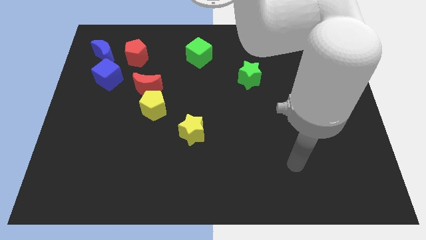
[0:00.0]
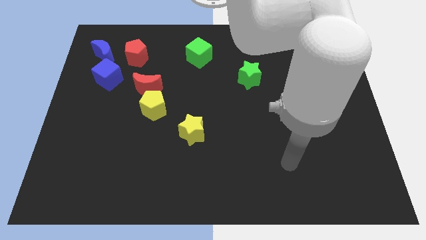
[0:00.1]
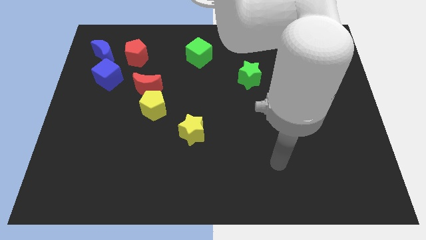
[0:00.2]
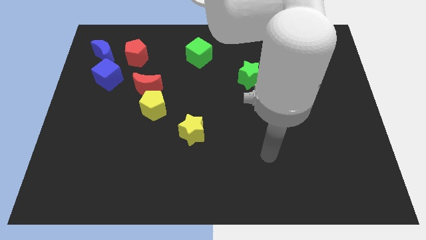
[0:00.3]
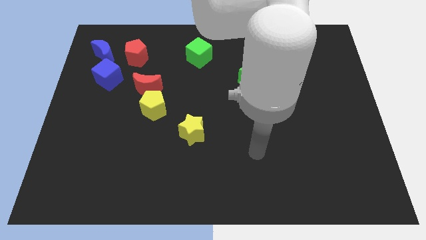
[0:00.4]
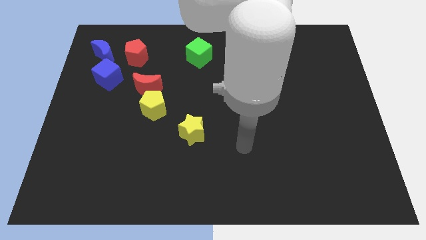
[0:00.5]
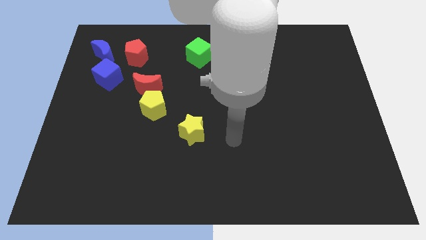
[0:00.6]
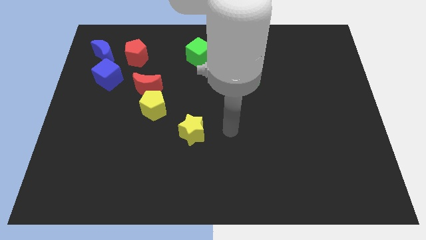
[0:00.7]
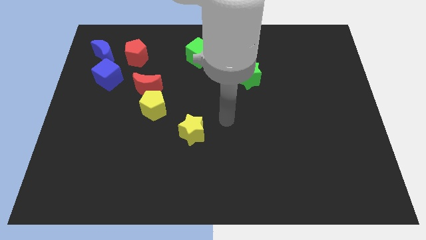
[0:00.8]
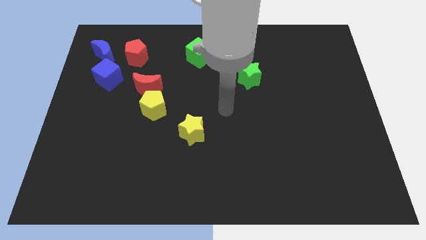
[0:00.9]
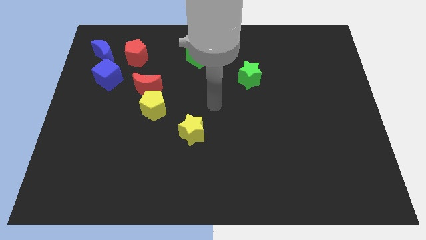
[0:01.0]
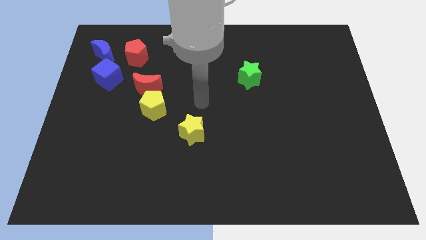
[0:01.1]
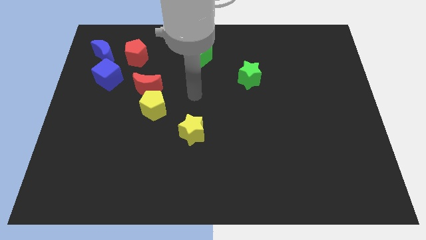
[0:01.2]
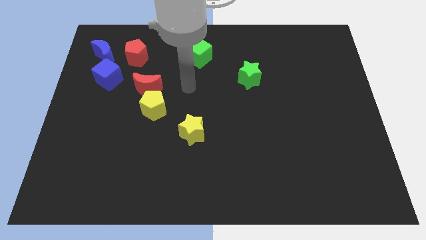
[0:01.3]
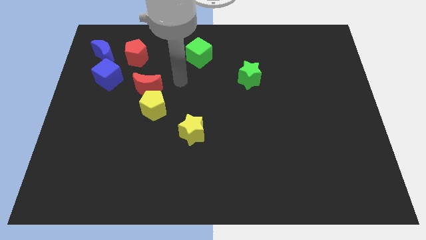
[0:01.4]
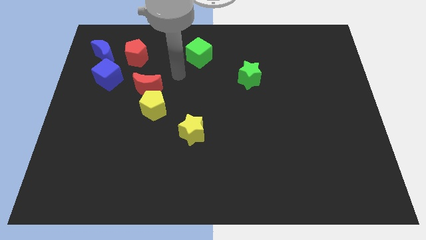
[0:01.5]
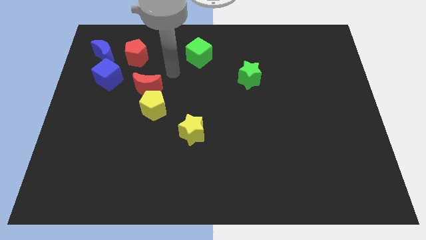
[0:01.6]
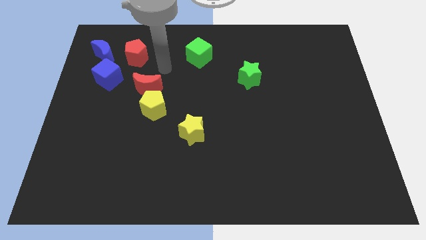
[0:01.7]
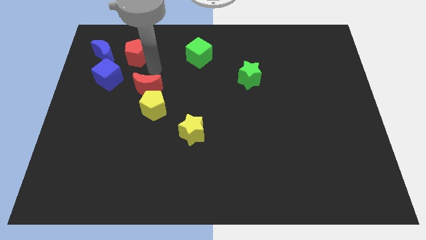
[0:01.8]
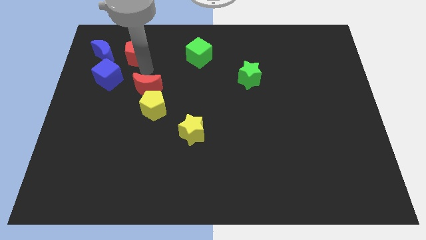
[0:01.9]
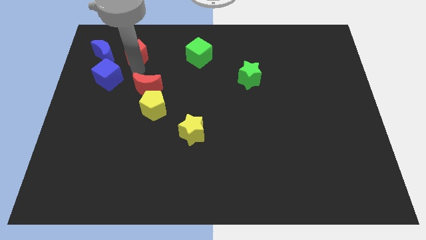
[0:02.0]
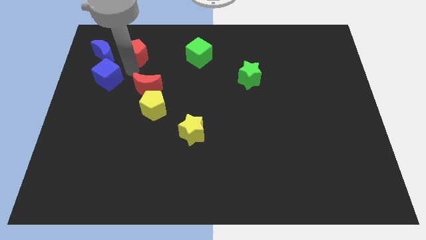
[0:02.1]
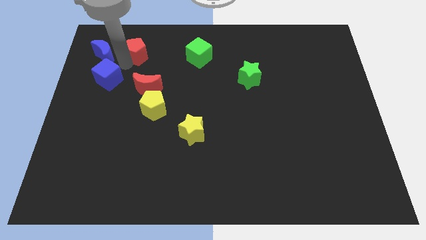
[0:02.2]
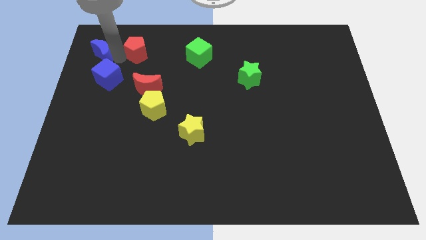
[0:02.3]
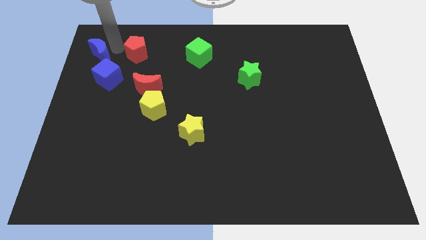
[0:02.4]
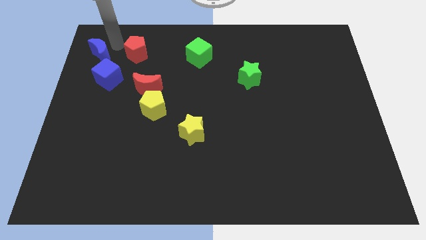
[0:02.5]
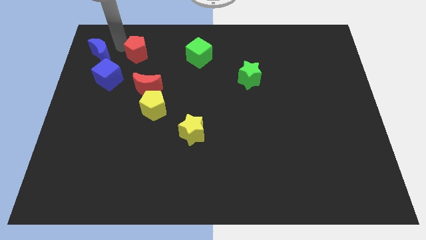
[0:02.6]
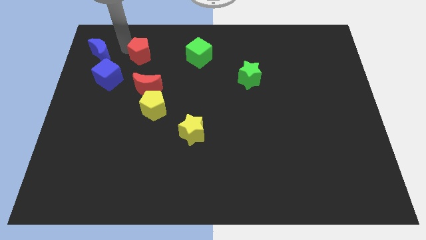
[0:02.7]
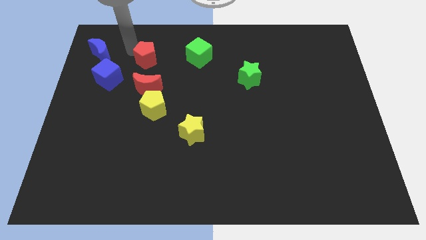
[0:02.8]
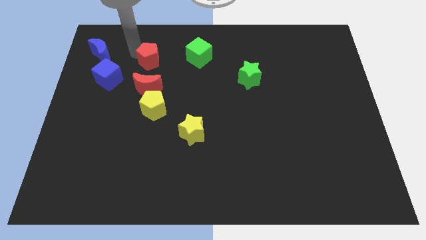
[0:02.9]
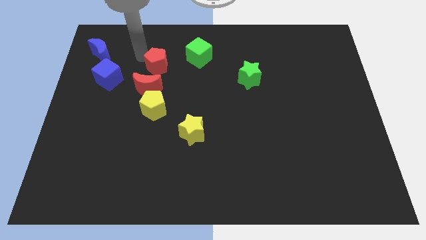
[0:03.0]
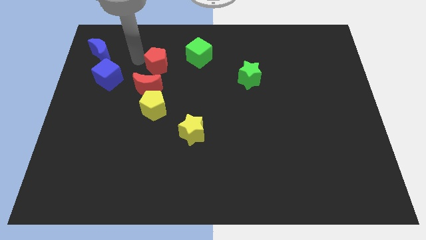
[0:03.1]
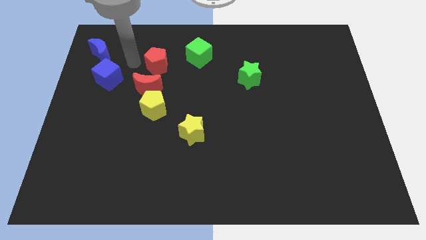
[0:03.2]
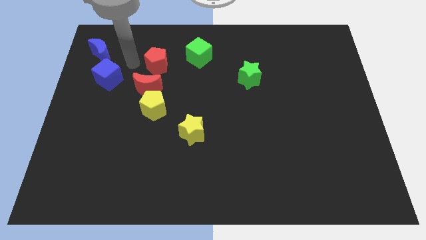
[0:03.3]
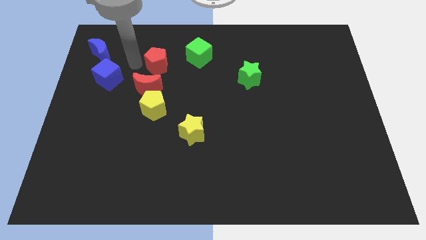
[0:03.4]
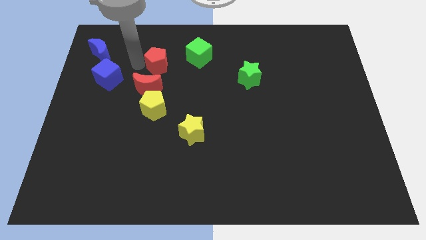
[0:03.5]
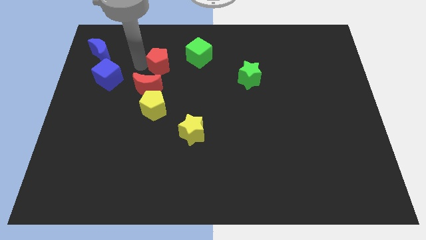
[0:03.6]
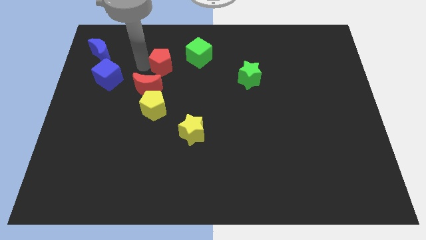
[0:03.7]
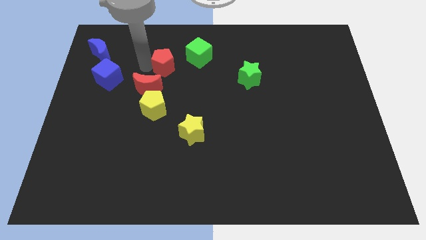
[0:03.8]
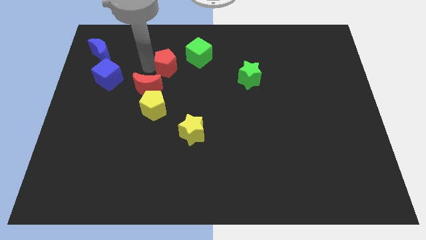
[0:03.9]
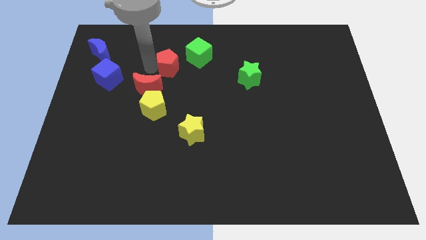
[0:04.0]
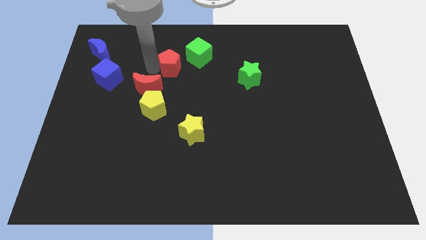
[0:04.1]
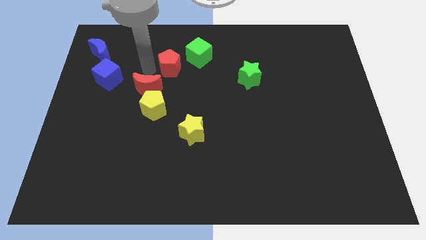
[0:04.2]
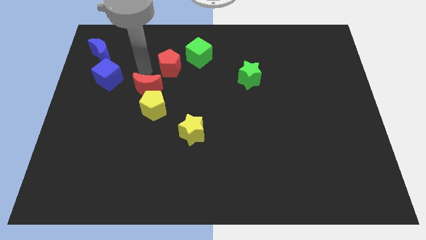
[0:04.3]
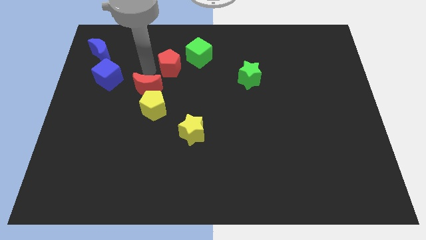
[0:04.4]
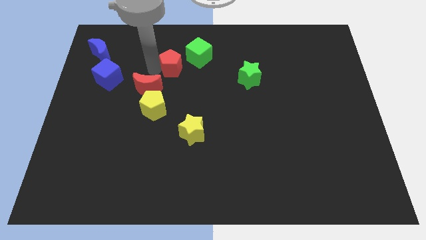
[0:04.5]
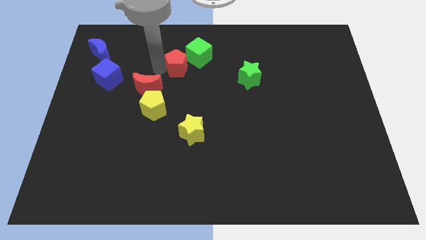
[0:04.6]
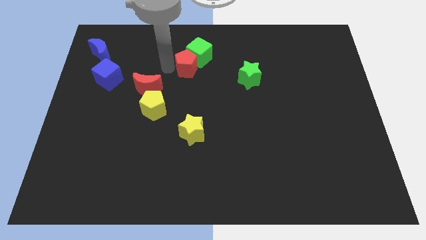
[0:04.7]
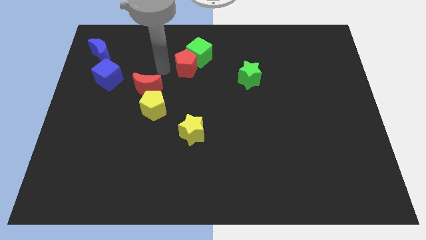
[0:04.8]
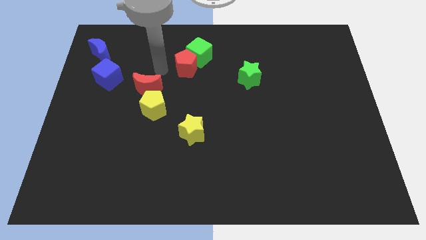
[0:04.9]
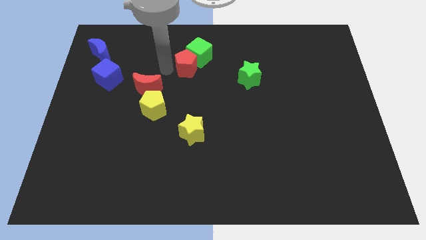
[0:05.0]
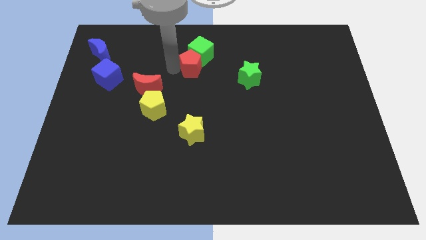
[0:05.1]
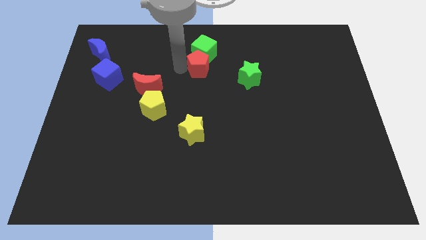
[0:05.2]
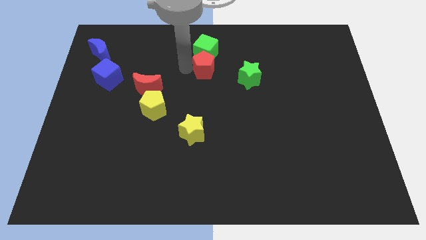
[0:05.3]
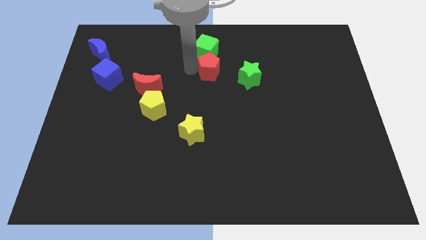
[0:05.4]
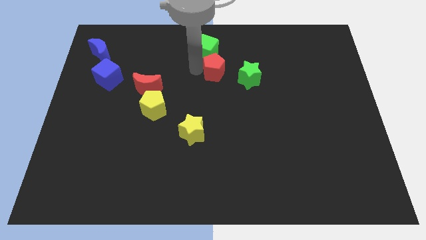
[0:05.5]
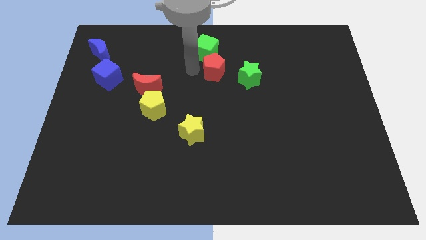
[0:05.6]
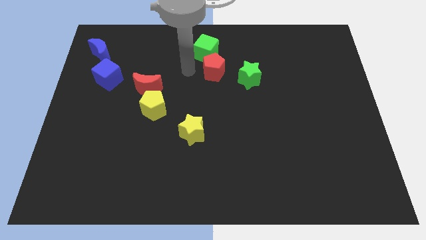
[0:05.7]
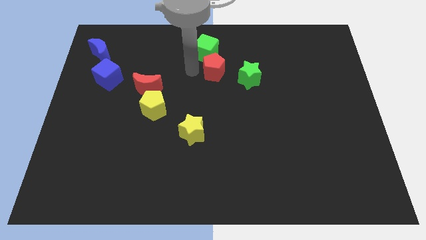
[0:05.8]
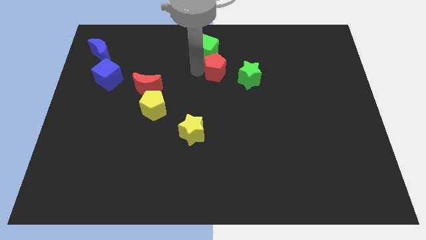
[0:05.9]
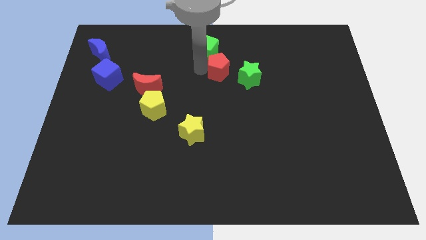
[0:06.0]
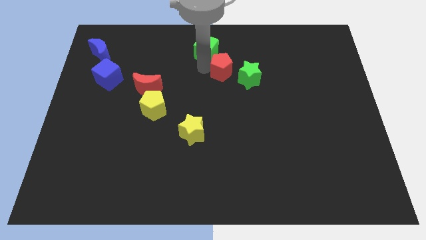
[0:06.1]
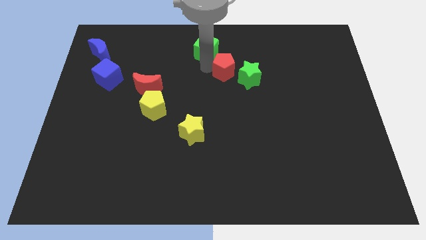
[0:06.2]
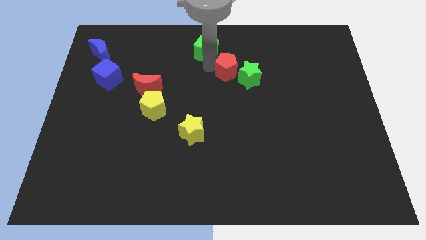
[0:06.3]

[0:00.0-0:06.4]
push the red pentagon towards the green star
